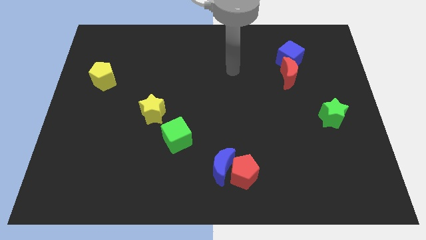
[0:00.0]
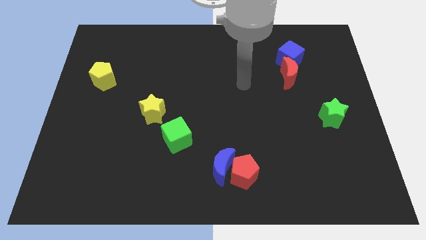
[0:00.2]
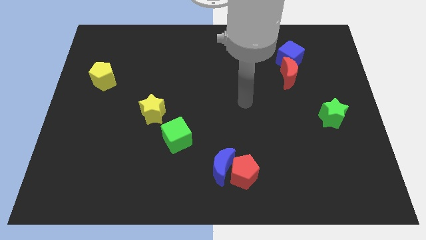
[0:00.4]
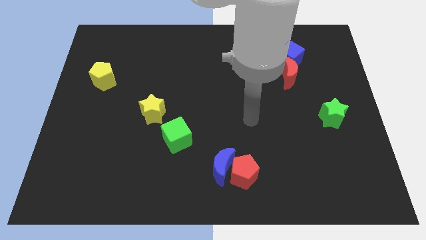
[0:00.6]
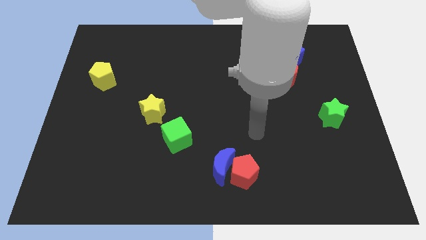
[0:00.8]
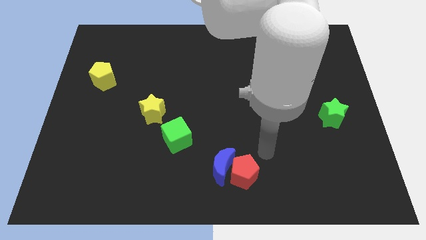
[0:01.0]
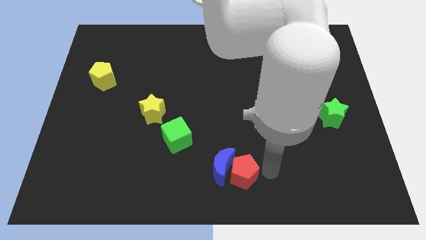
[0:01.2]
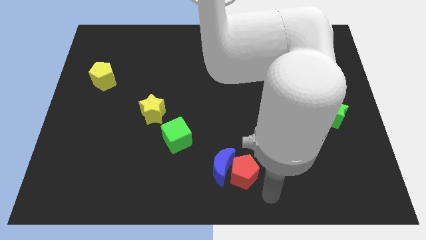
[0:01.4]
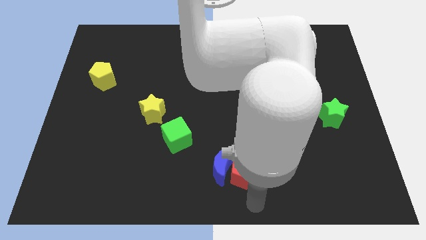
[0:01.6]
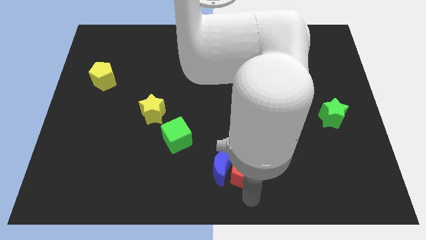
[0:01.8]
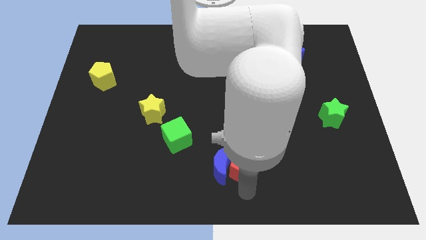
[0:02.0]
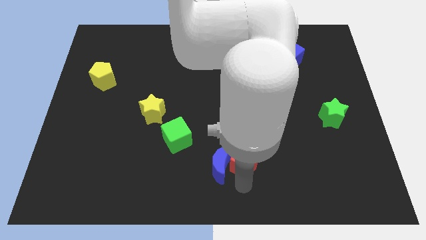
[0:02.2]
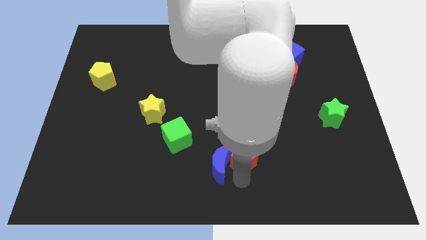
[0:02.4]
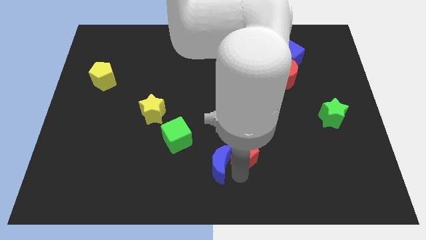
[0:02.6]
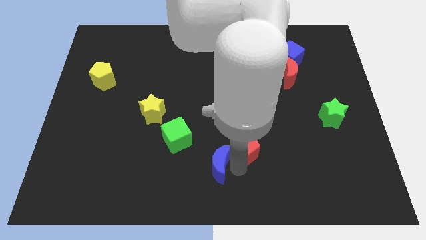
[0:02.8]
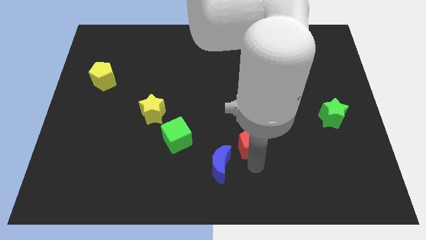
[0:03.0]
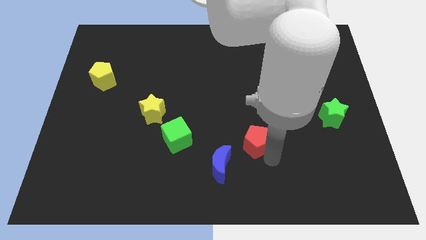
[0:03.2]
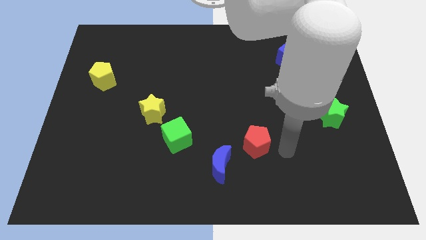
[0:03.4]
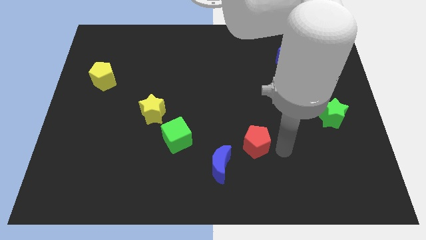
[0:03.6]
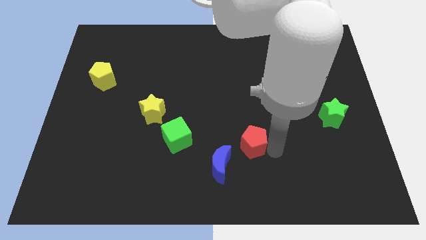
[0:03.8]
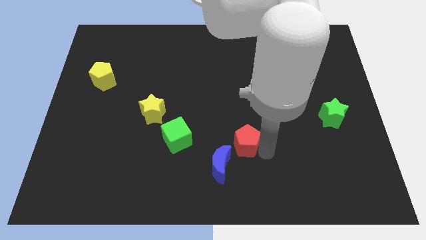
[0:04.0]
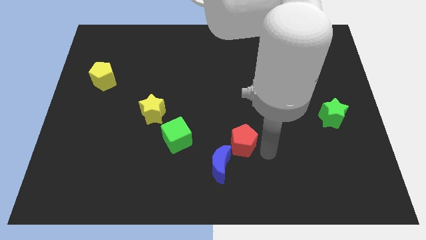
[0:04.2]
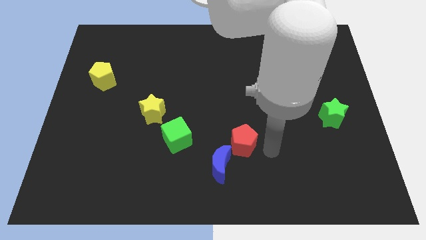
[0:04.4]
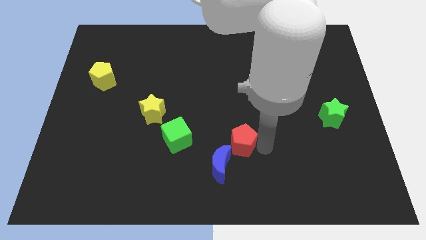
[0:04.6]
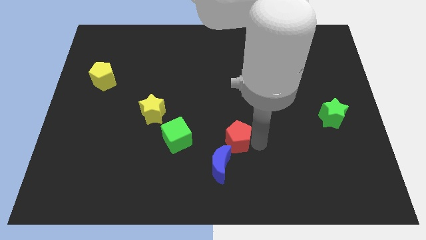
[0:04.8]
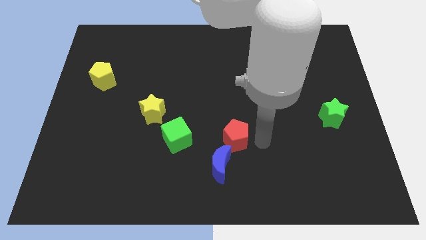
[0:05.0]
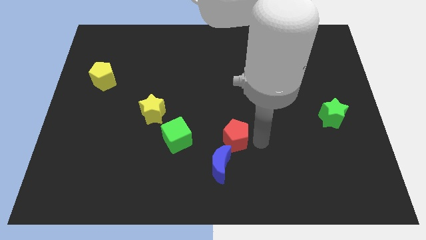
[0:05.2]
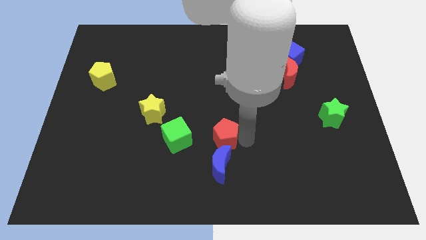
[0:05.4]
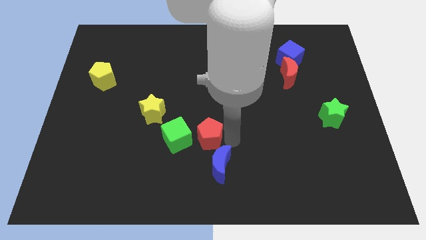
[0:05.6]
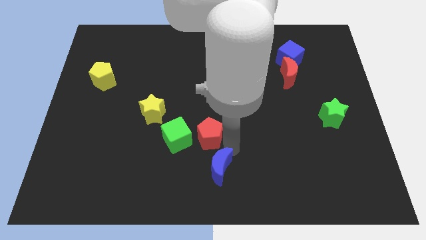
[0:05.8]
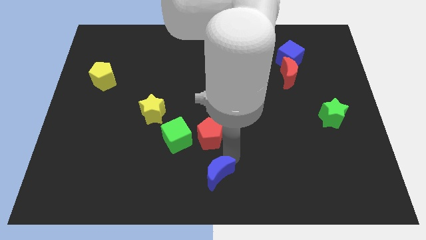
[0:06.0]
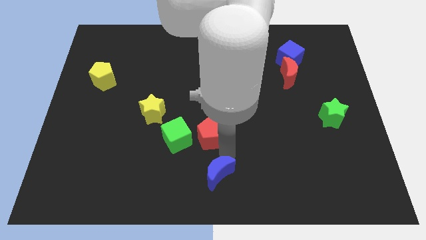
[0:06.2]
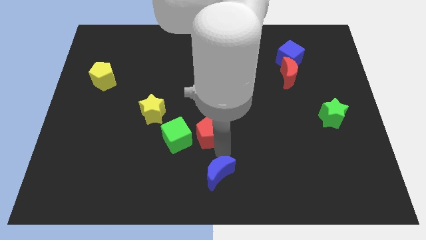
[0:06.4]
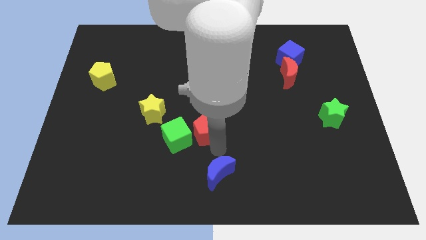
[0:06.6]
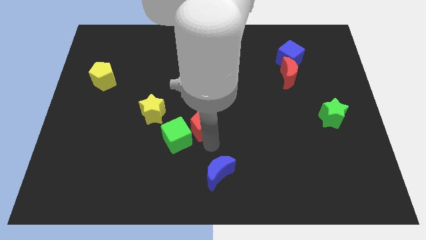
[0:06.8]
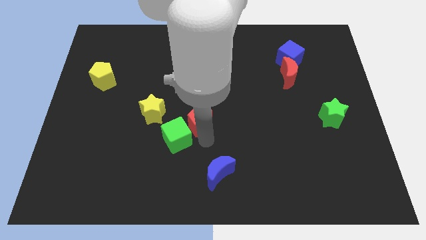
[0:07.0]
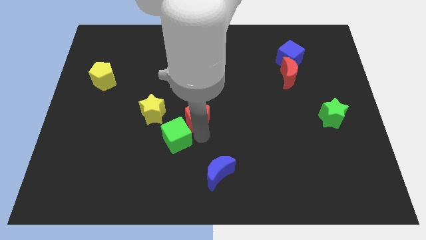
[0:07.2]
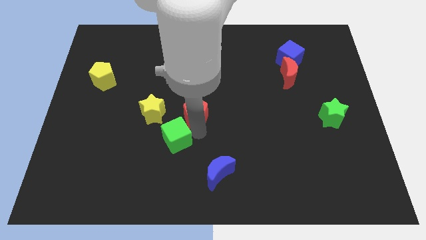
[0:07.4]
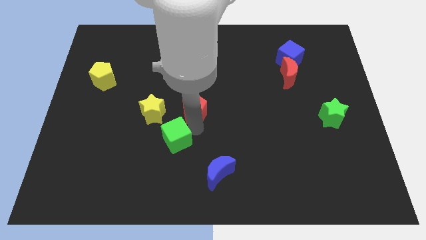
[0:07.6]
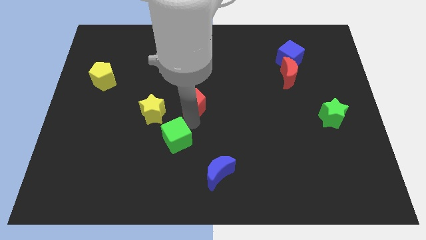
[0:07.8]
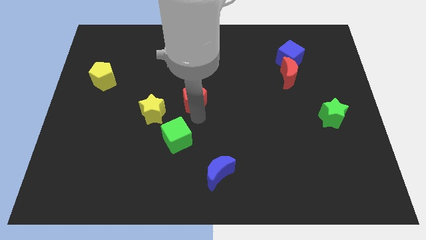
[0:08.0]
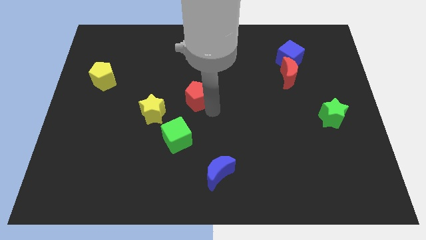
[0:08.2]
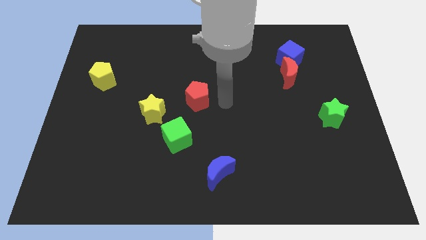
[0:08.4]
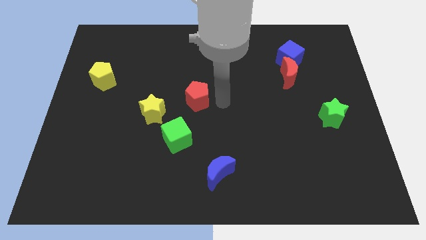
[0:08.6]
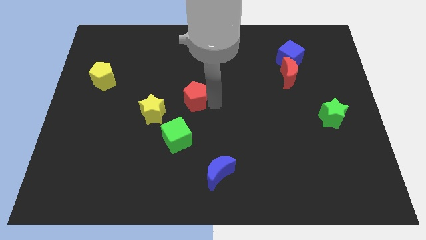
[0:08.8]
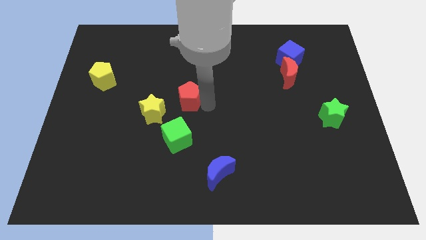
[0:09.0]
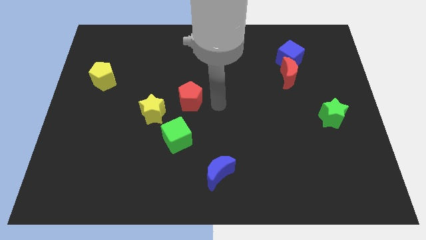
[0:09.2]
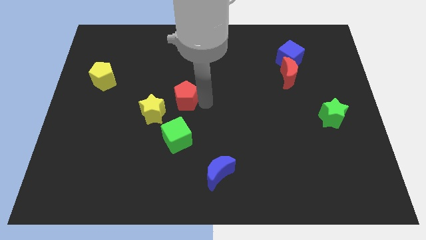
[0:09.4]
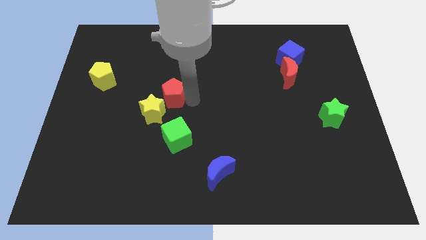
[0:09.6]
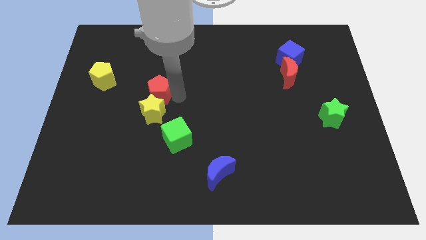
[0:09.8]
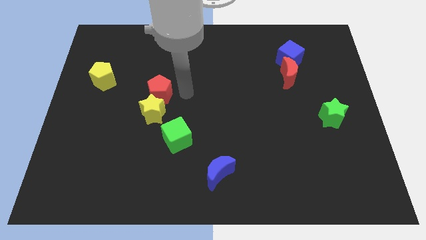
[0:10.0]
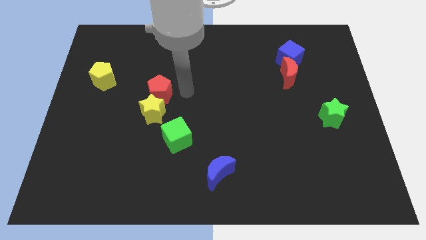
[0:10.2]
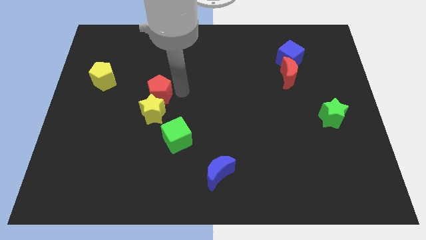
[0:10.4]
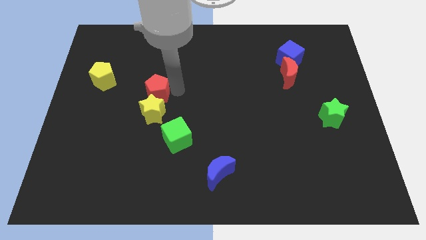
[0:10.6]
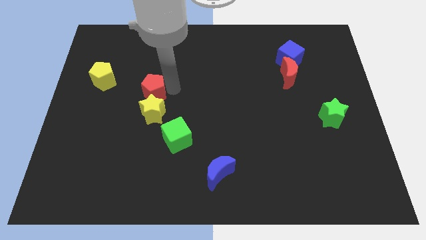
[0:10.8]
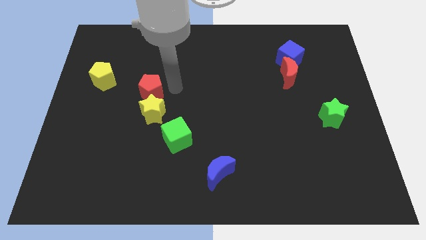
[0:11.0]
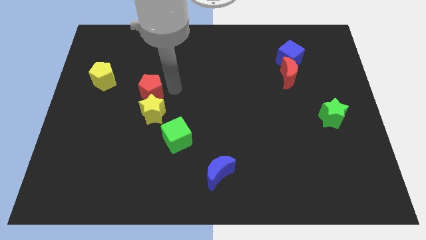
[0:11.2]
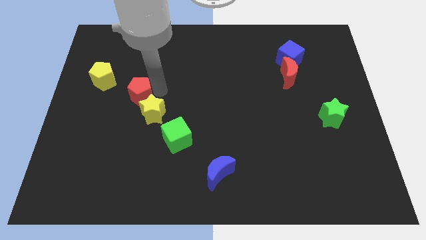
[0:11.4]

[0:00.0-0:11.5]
put the red pentagon diagonally down and to the right of the yellow pentagon

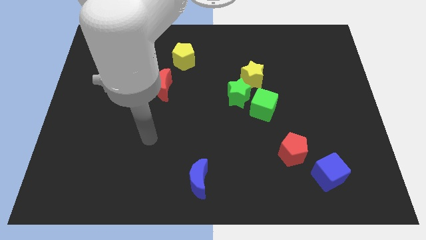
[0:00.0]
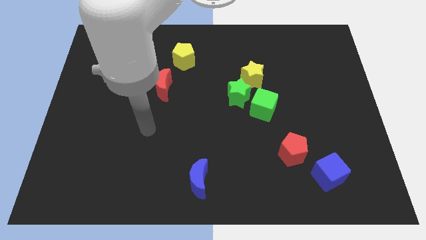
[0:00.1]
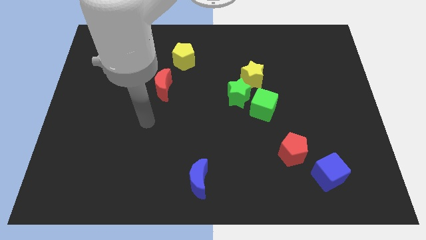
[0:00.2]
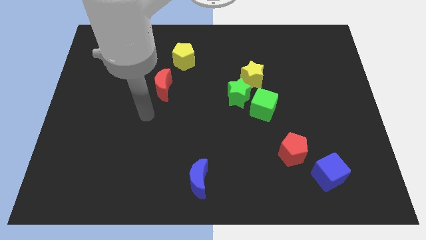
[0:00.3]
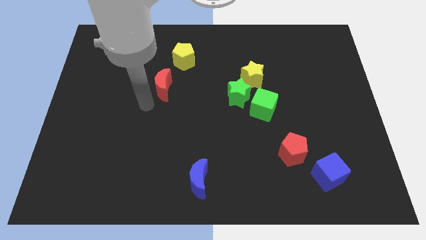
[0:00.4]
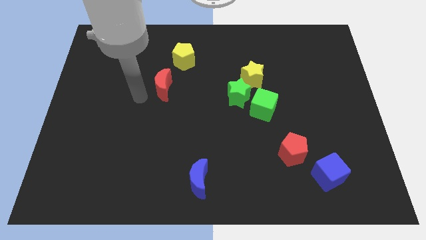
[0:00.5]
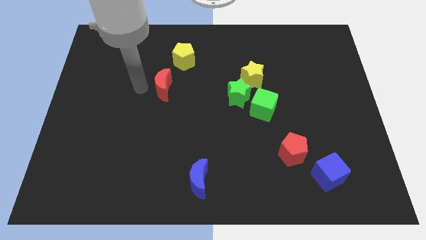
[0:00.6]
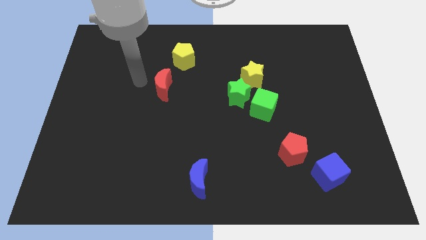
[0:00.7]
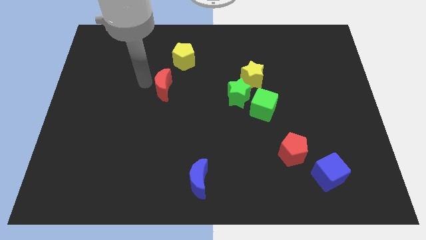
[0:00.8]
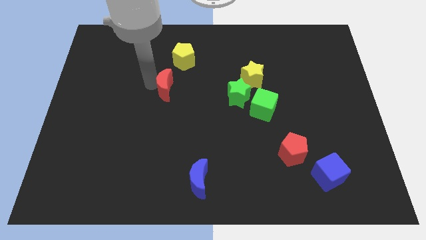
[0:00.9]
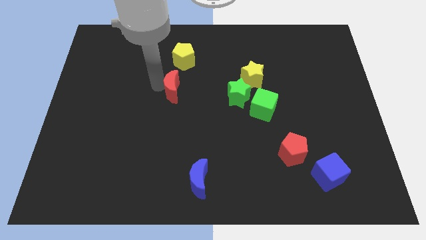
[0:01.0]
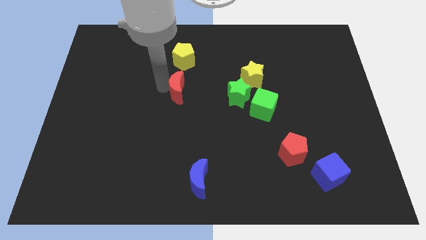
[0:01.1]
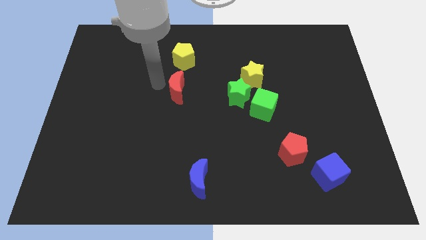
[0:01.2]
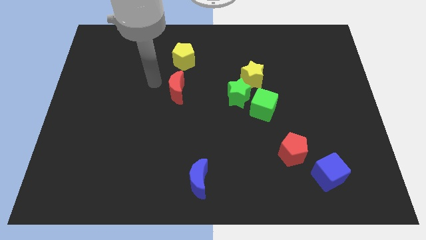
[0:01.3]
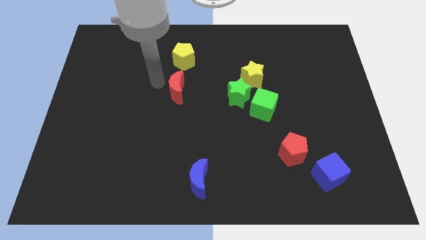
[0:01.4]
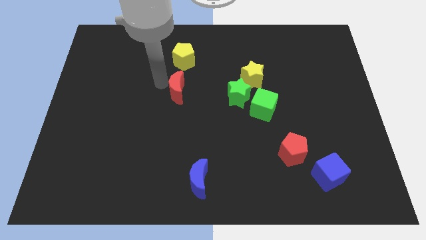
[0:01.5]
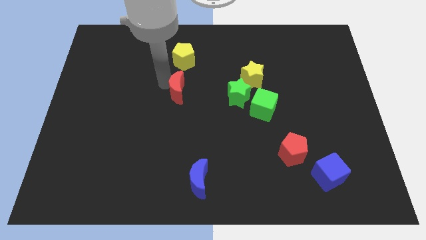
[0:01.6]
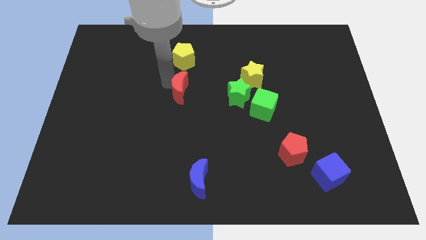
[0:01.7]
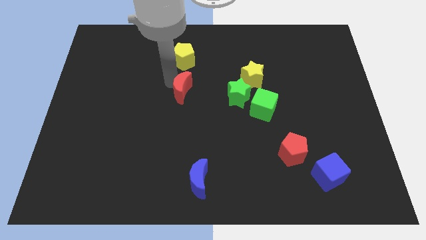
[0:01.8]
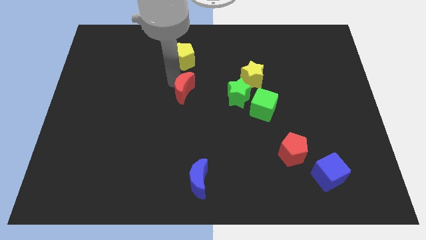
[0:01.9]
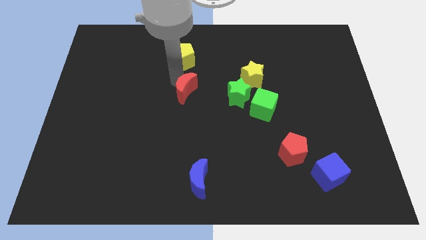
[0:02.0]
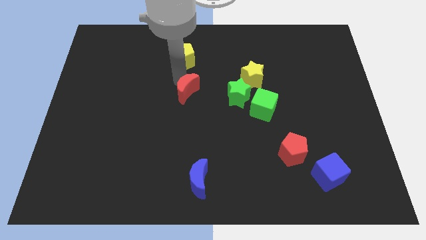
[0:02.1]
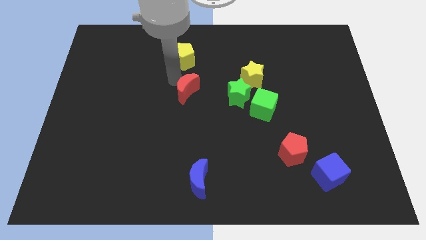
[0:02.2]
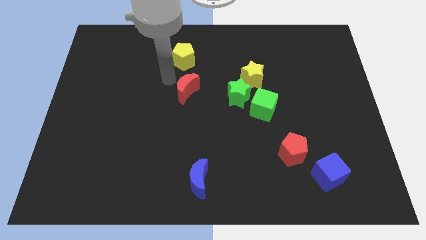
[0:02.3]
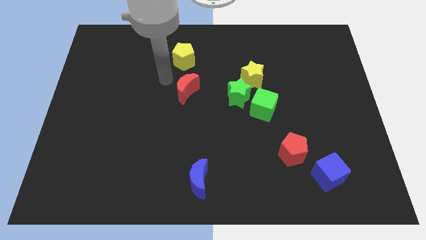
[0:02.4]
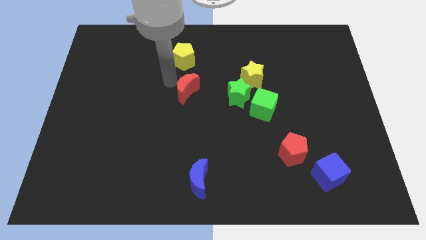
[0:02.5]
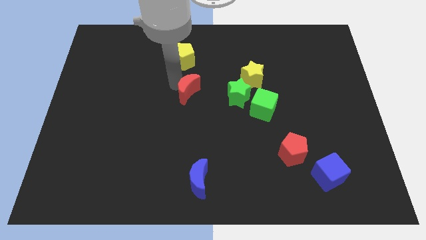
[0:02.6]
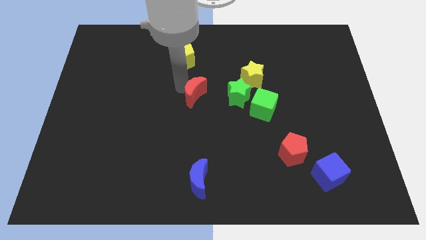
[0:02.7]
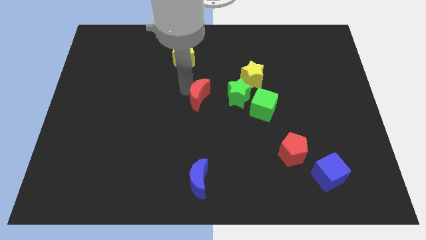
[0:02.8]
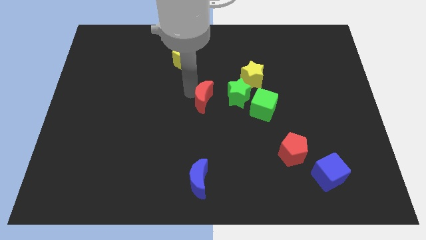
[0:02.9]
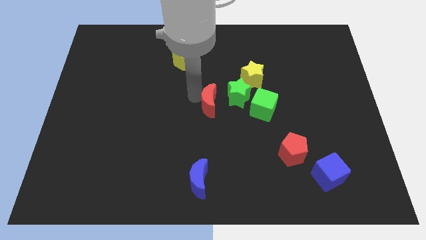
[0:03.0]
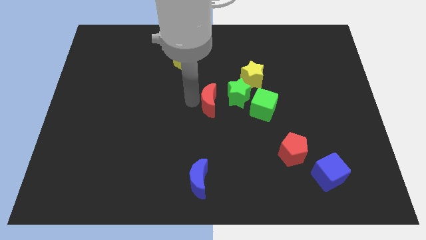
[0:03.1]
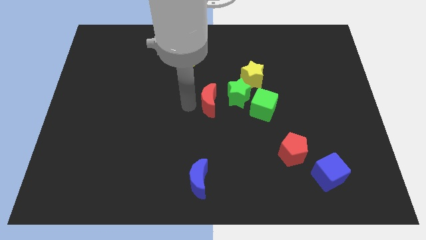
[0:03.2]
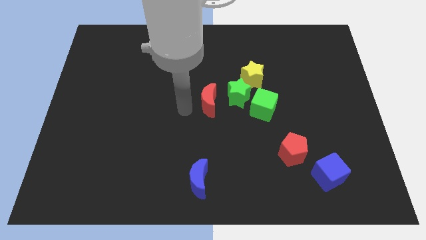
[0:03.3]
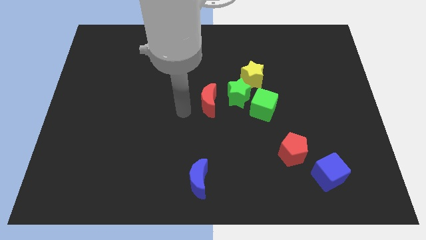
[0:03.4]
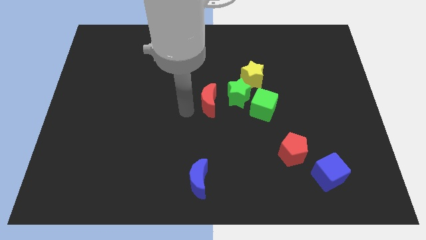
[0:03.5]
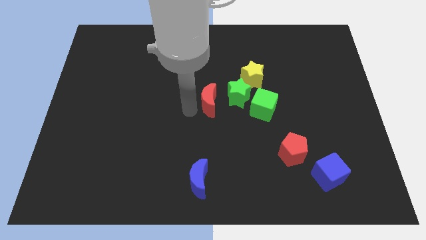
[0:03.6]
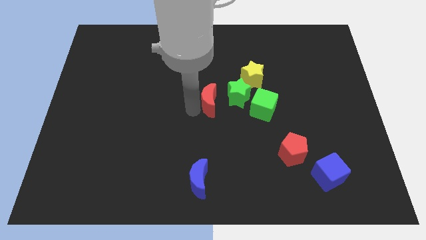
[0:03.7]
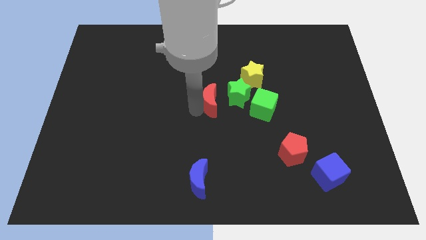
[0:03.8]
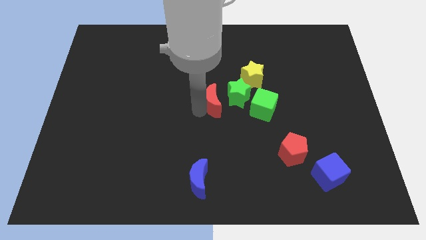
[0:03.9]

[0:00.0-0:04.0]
put the red moon to the bottom left side of the yellow star
